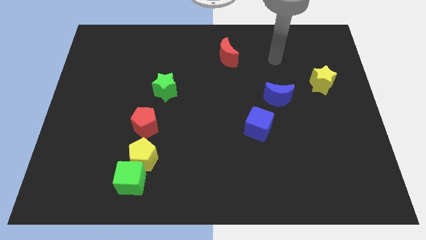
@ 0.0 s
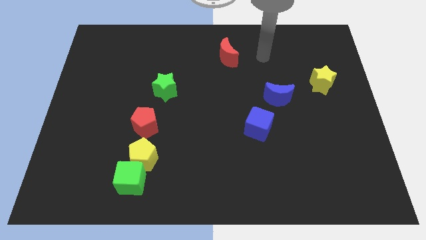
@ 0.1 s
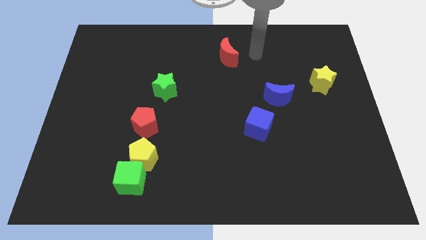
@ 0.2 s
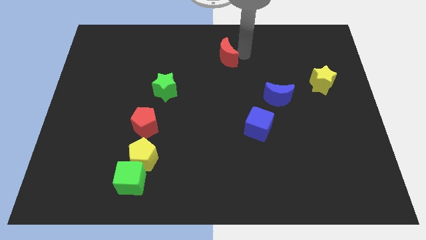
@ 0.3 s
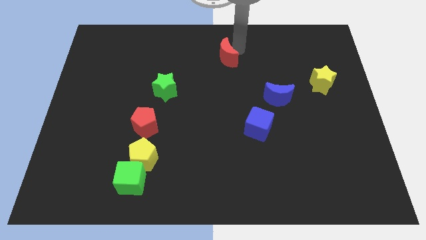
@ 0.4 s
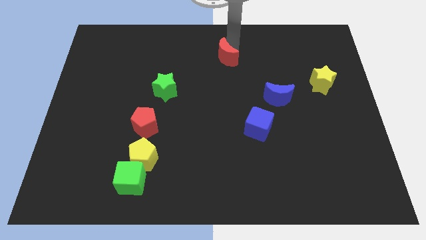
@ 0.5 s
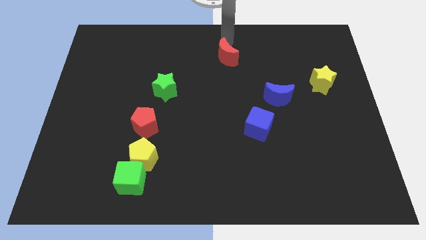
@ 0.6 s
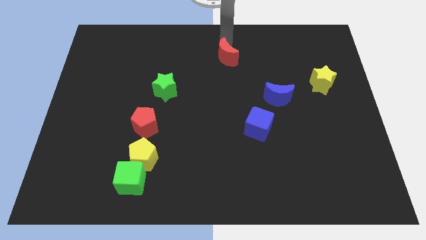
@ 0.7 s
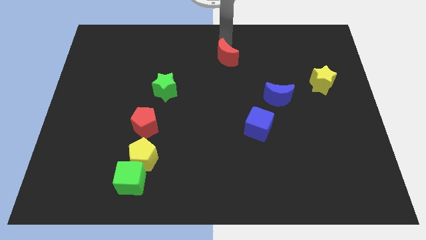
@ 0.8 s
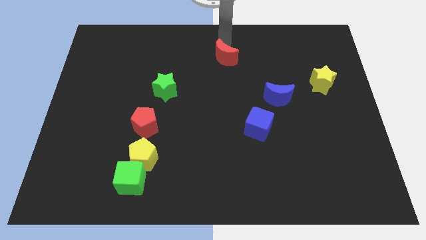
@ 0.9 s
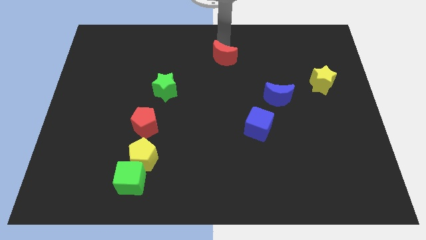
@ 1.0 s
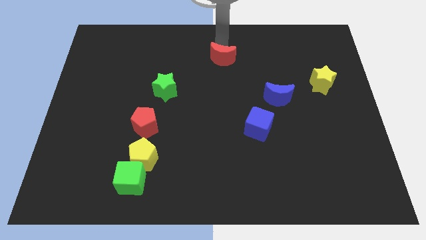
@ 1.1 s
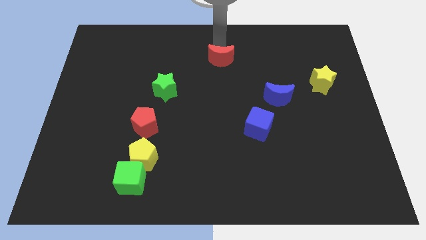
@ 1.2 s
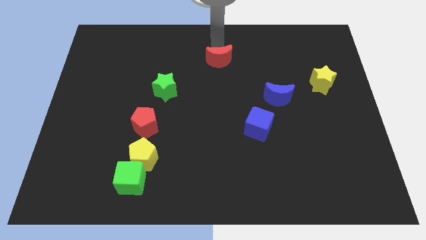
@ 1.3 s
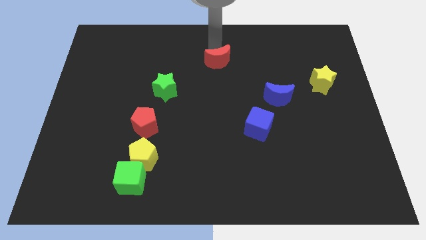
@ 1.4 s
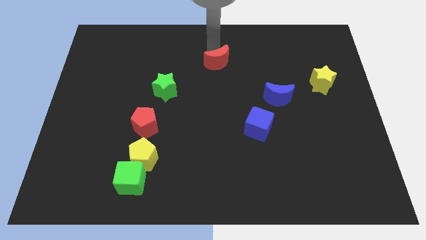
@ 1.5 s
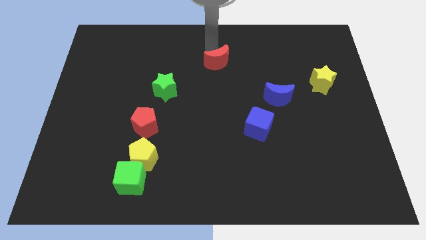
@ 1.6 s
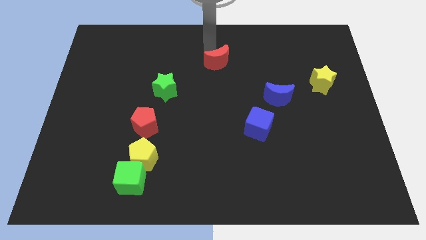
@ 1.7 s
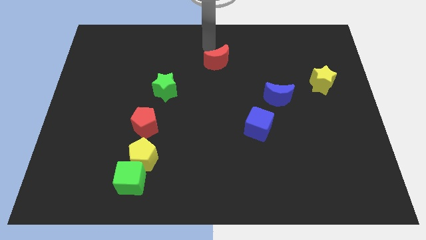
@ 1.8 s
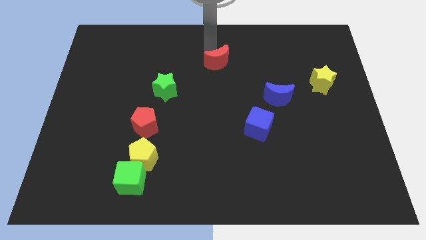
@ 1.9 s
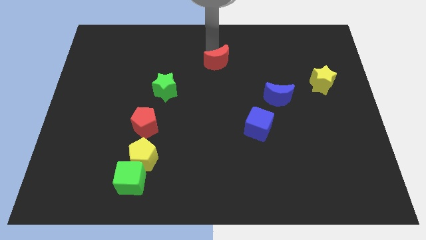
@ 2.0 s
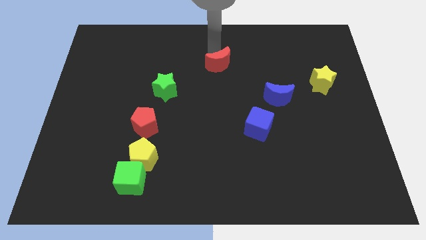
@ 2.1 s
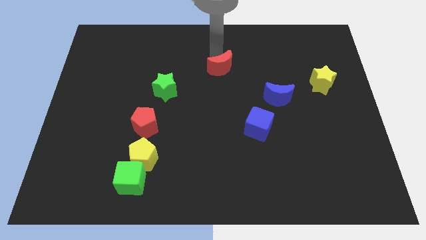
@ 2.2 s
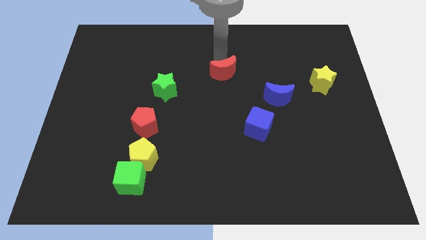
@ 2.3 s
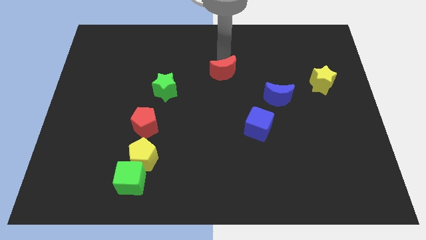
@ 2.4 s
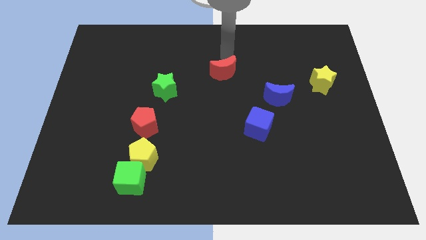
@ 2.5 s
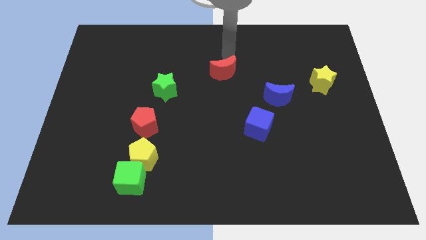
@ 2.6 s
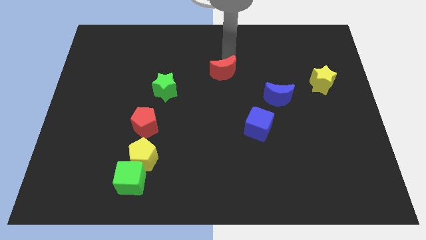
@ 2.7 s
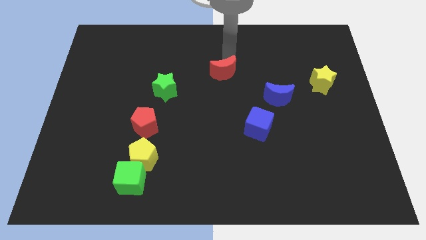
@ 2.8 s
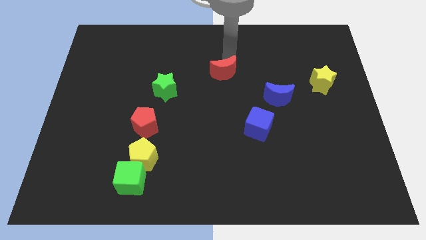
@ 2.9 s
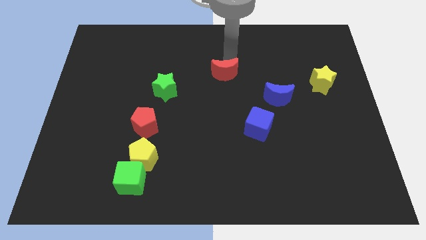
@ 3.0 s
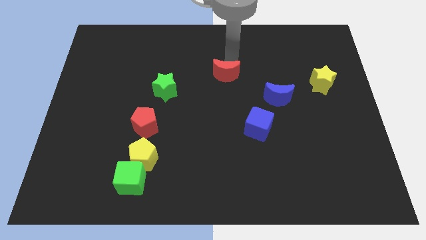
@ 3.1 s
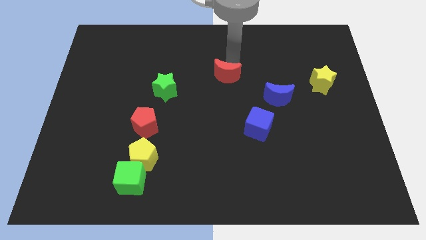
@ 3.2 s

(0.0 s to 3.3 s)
slide the red moon slightly downwards

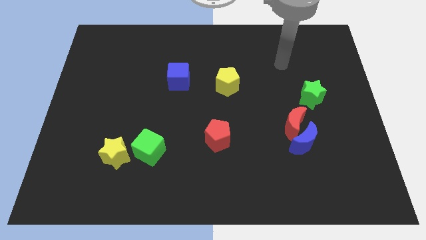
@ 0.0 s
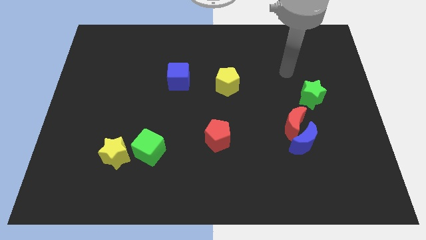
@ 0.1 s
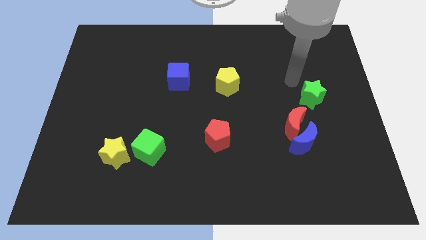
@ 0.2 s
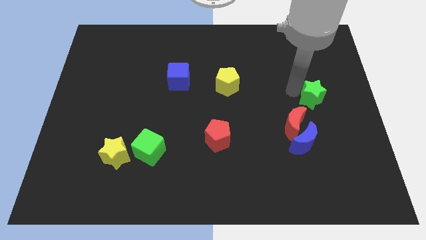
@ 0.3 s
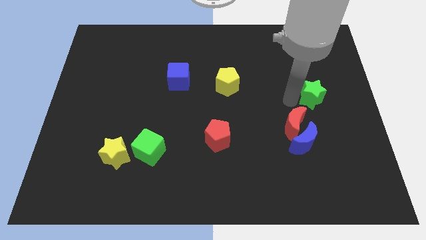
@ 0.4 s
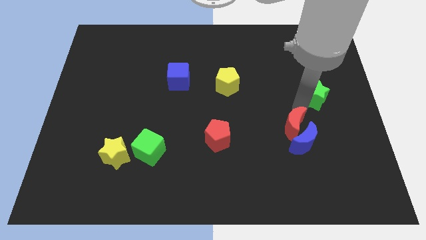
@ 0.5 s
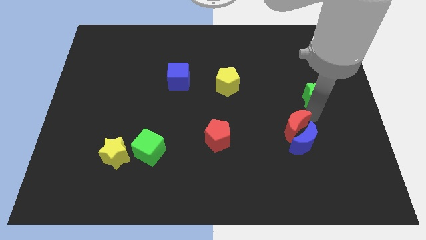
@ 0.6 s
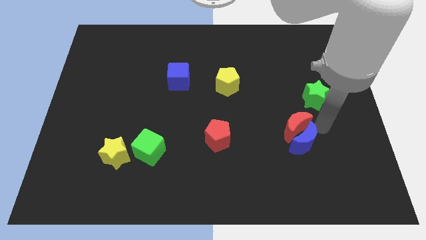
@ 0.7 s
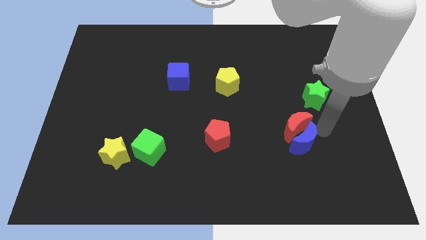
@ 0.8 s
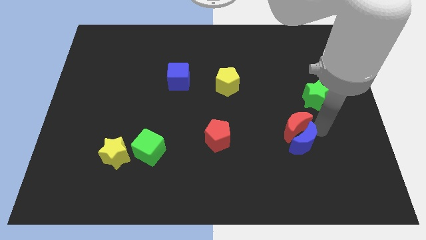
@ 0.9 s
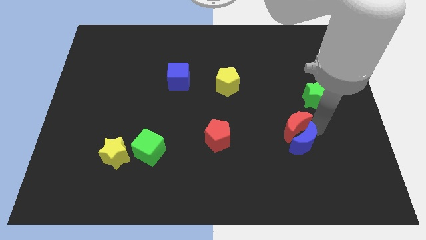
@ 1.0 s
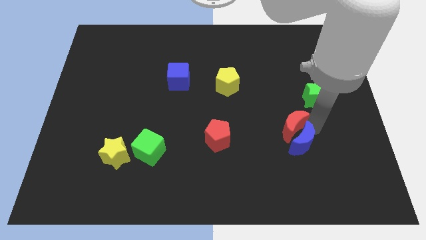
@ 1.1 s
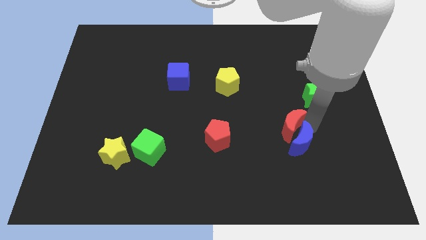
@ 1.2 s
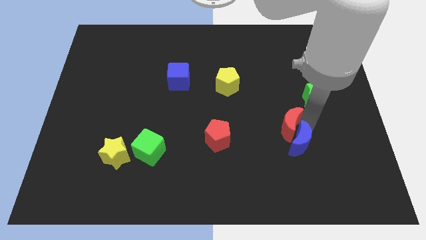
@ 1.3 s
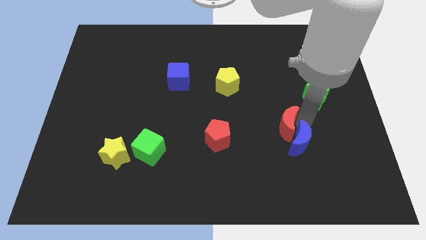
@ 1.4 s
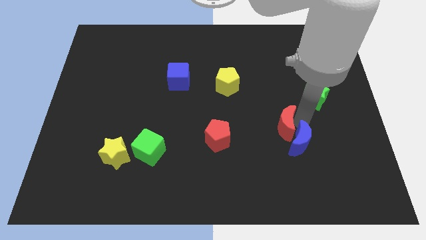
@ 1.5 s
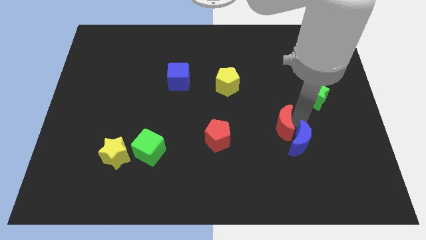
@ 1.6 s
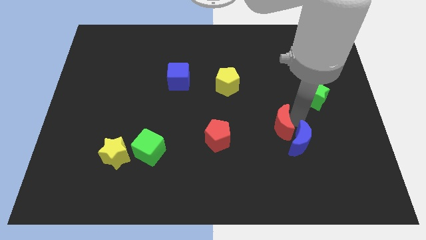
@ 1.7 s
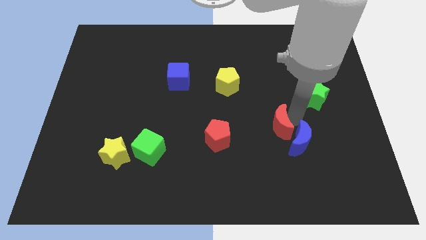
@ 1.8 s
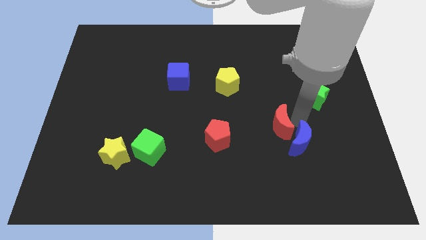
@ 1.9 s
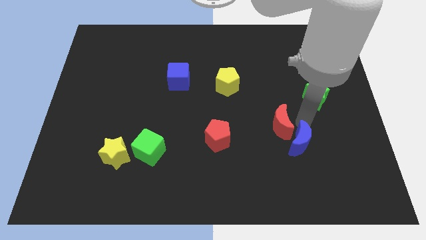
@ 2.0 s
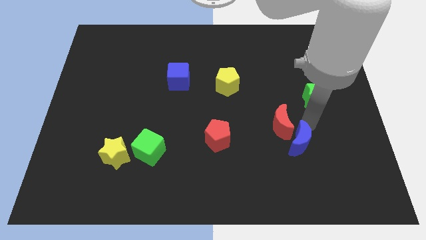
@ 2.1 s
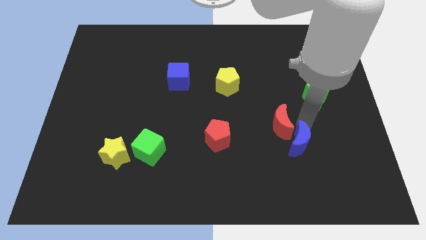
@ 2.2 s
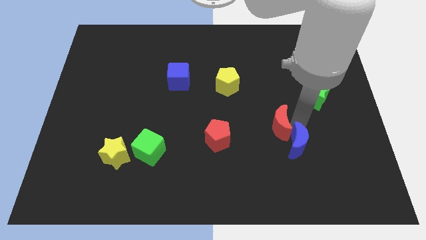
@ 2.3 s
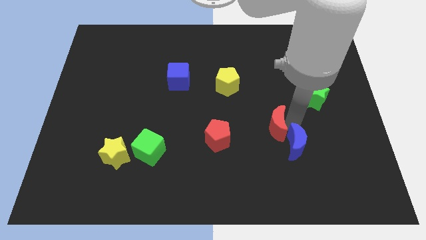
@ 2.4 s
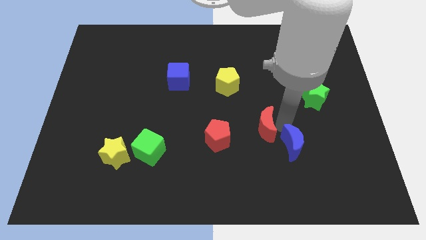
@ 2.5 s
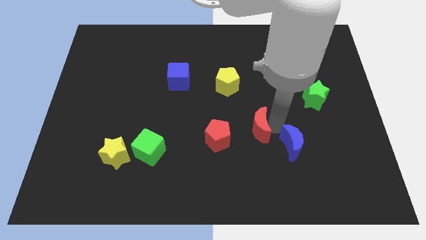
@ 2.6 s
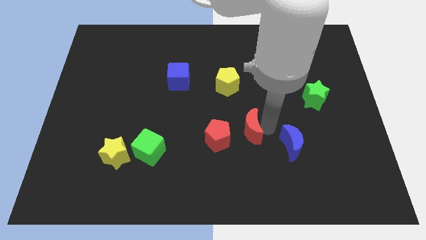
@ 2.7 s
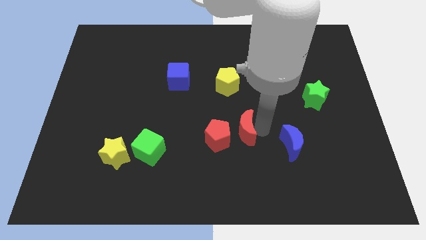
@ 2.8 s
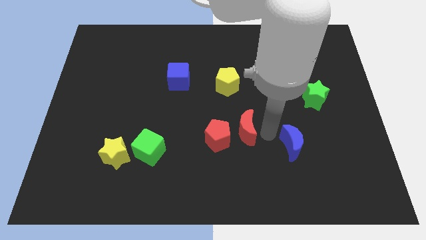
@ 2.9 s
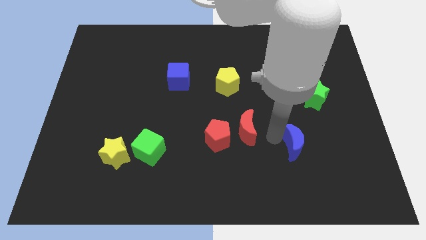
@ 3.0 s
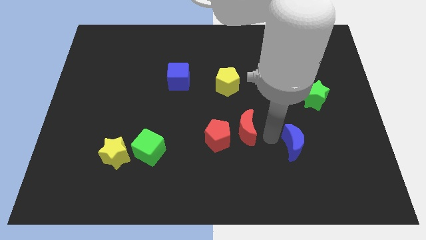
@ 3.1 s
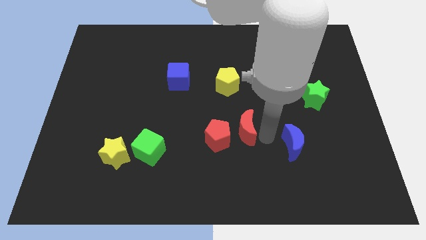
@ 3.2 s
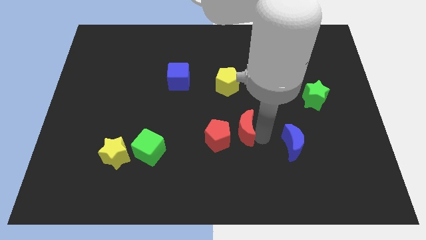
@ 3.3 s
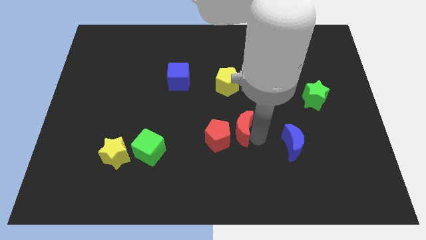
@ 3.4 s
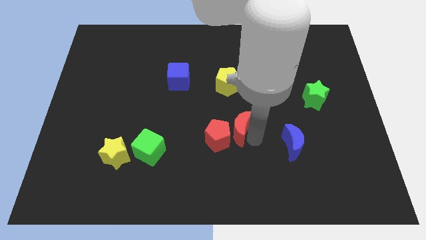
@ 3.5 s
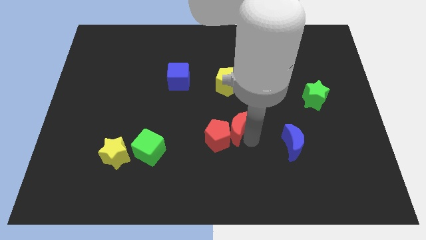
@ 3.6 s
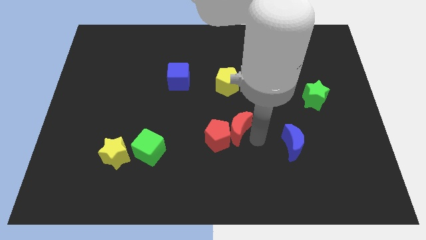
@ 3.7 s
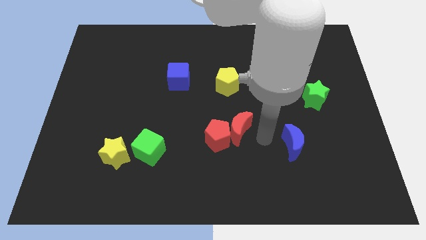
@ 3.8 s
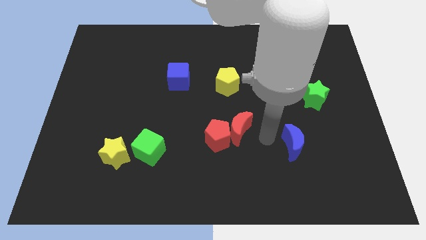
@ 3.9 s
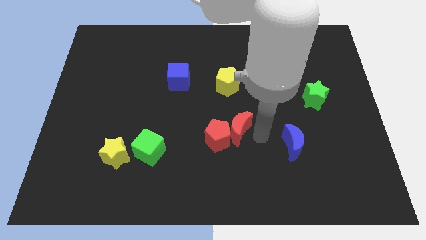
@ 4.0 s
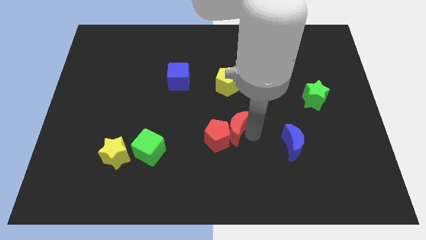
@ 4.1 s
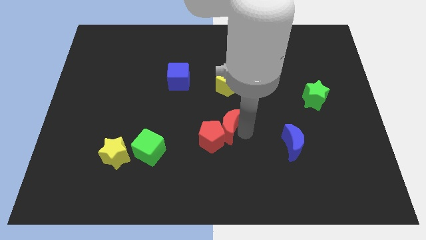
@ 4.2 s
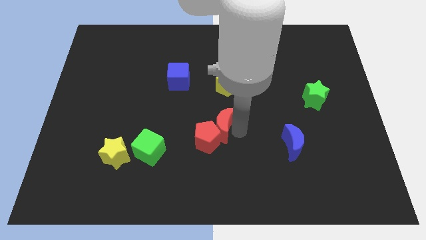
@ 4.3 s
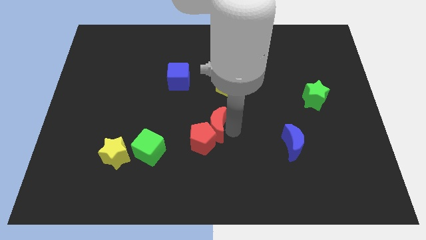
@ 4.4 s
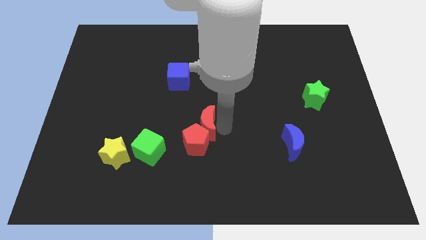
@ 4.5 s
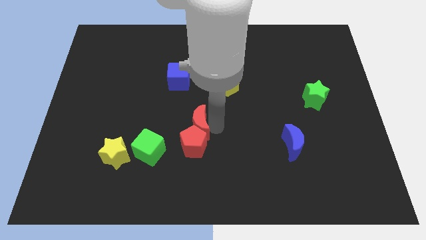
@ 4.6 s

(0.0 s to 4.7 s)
slide the red moon to the left
